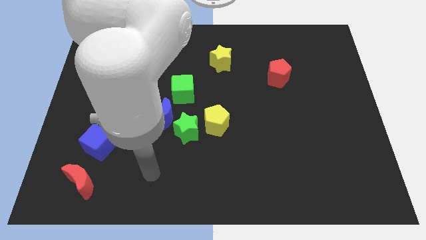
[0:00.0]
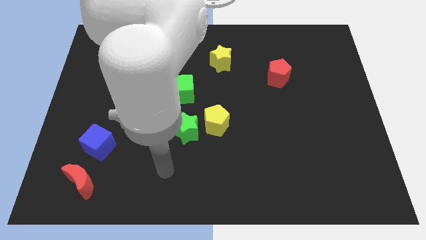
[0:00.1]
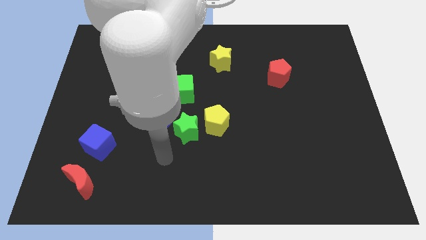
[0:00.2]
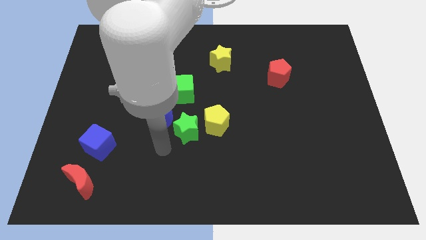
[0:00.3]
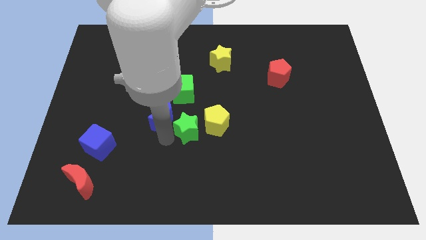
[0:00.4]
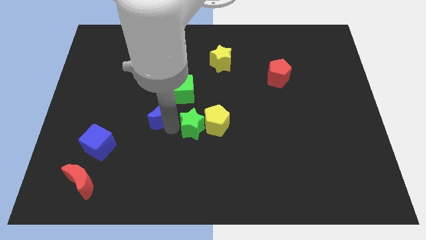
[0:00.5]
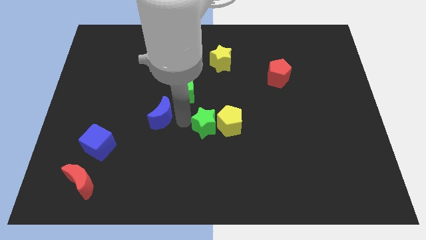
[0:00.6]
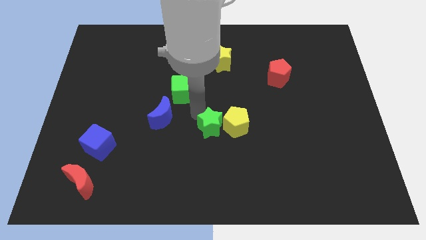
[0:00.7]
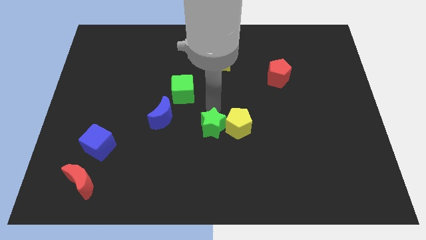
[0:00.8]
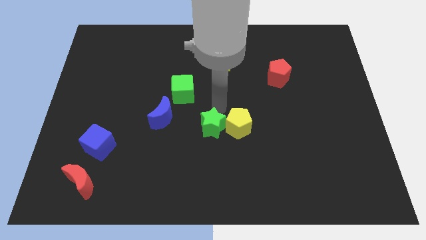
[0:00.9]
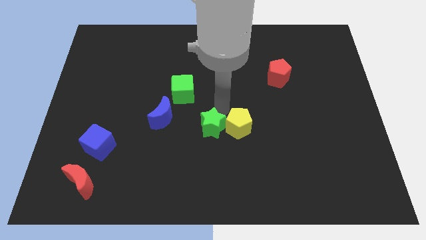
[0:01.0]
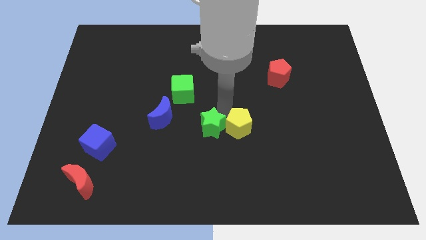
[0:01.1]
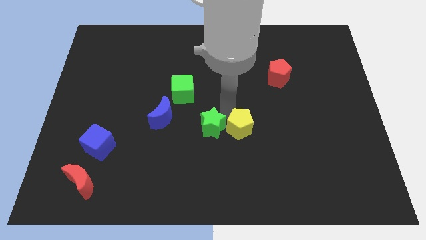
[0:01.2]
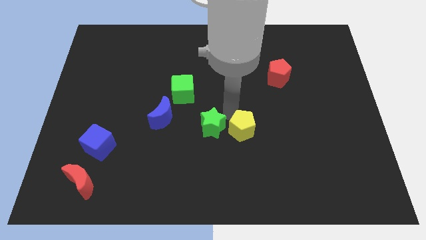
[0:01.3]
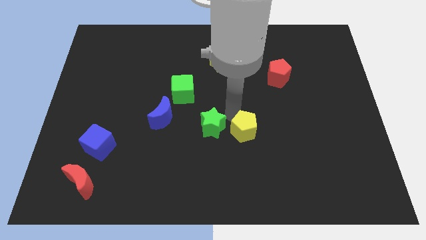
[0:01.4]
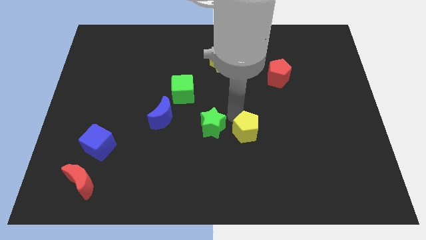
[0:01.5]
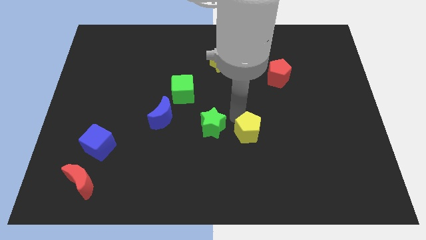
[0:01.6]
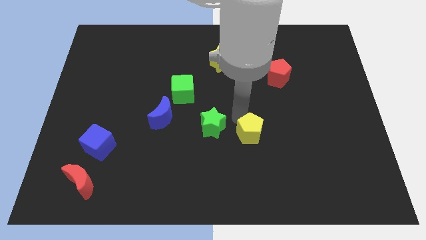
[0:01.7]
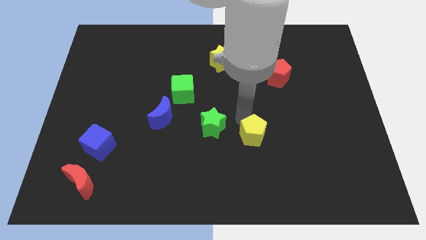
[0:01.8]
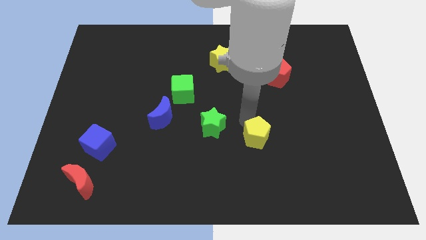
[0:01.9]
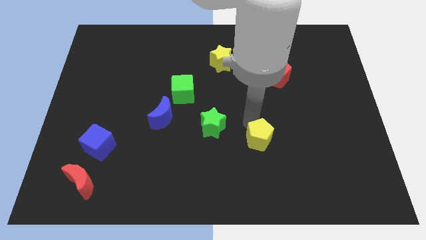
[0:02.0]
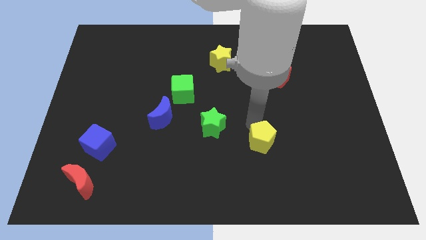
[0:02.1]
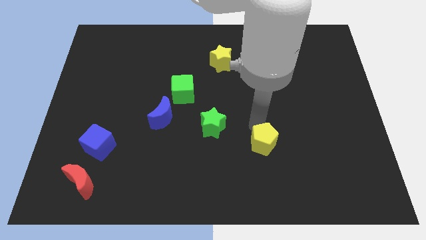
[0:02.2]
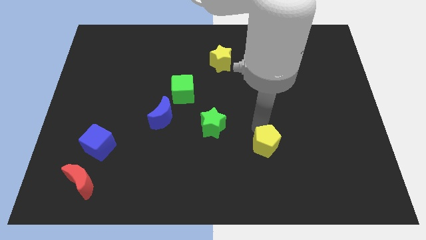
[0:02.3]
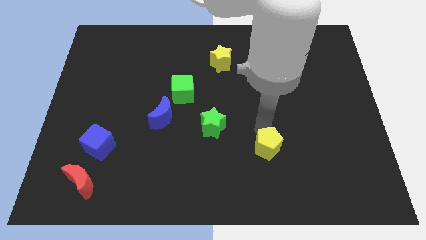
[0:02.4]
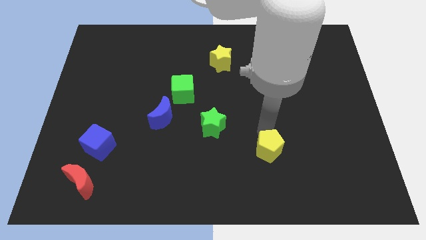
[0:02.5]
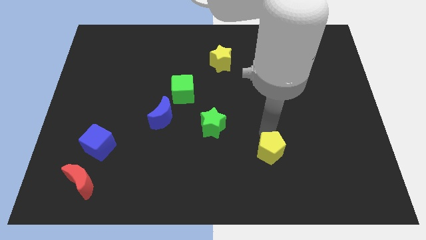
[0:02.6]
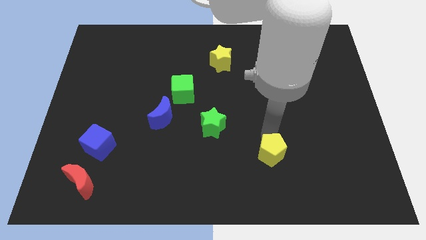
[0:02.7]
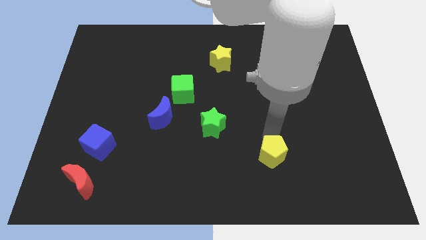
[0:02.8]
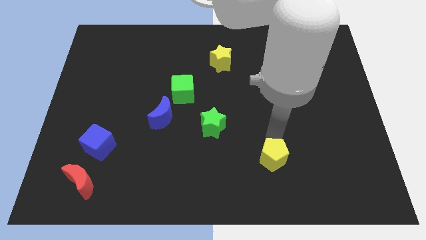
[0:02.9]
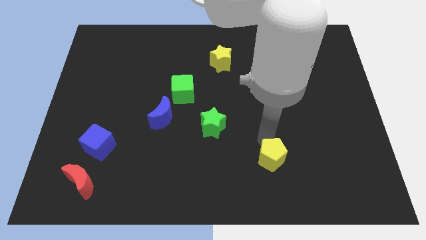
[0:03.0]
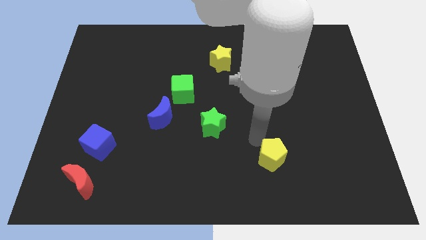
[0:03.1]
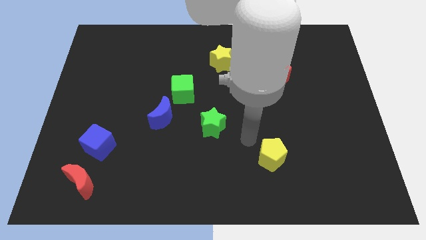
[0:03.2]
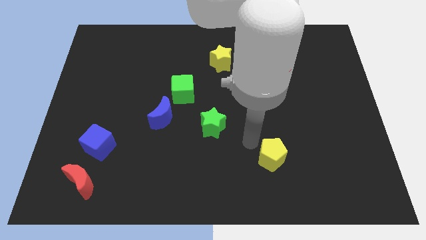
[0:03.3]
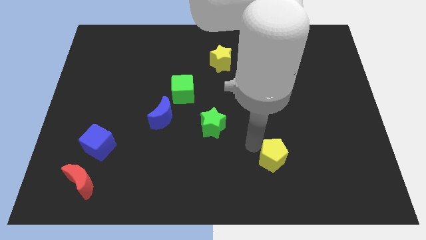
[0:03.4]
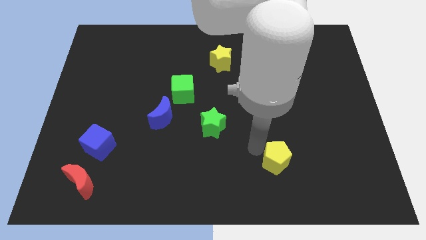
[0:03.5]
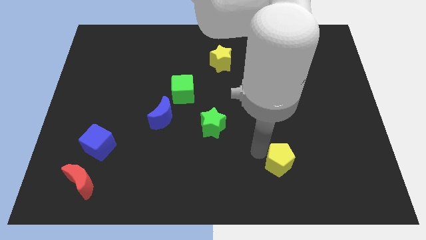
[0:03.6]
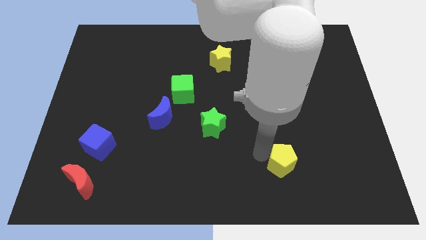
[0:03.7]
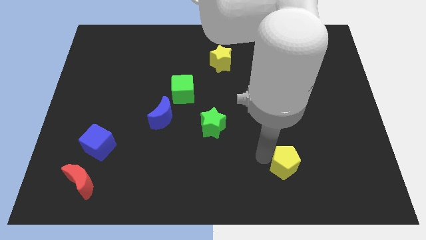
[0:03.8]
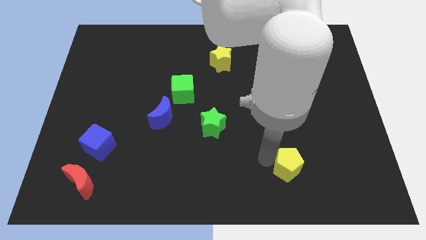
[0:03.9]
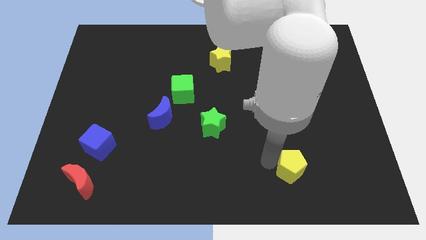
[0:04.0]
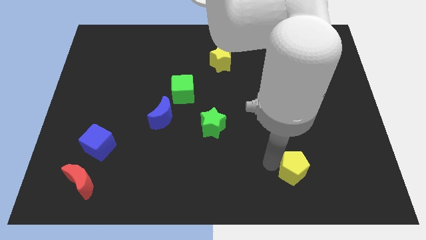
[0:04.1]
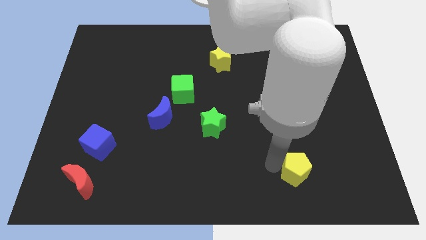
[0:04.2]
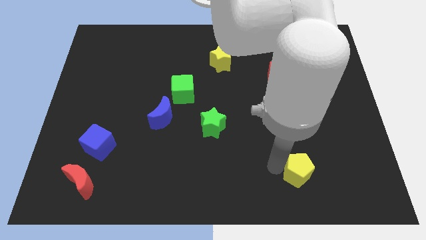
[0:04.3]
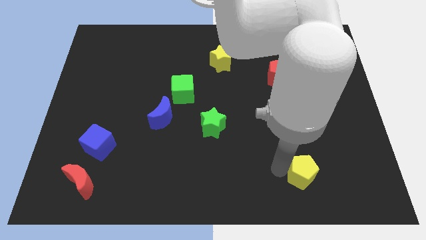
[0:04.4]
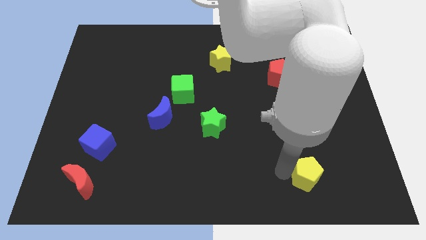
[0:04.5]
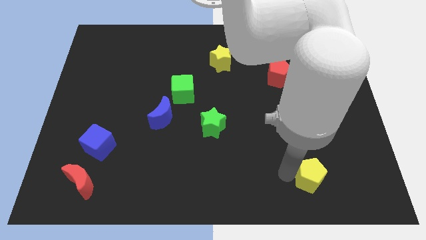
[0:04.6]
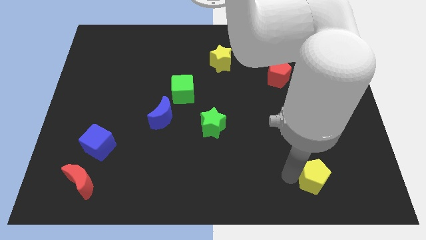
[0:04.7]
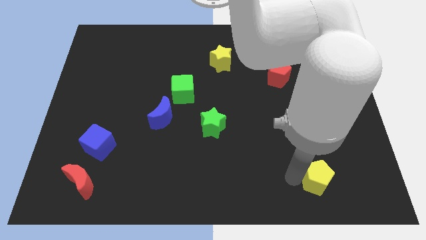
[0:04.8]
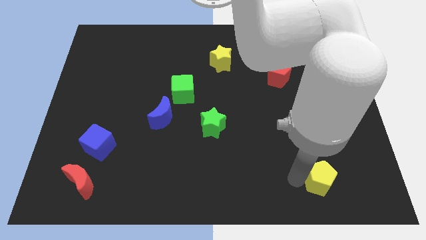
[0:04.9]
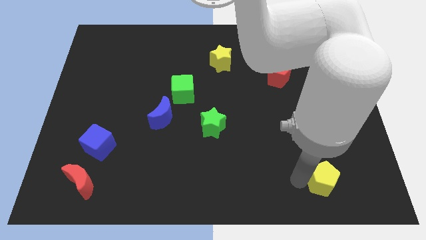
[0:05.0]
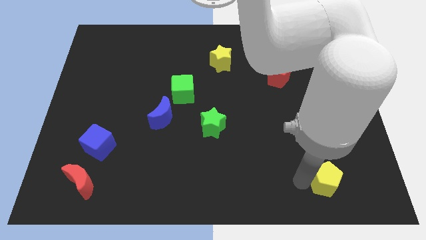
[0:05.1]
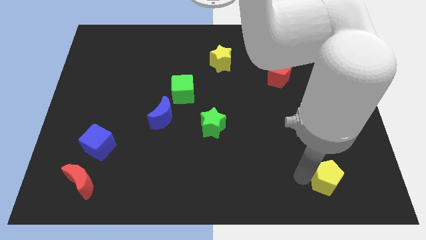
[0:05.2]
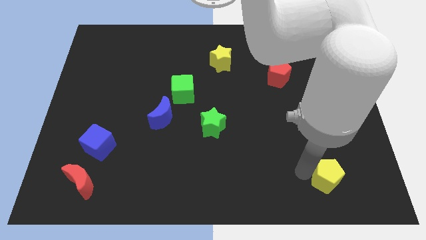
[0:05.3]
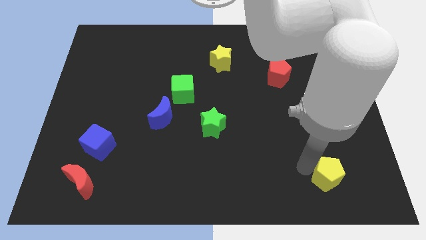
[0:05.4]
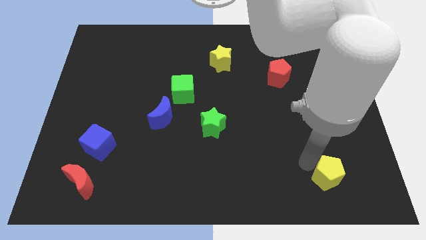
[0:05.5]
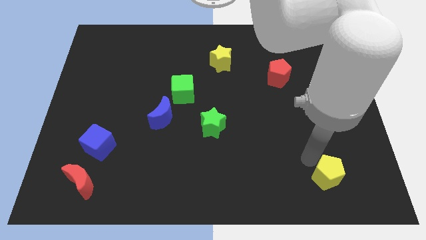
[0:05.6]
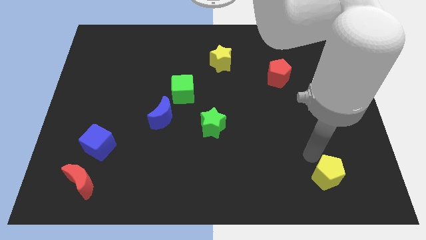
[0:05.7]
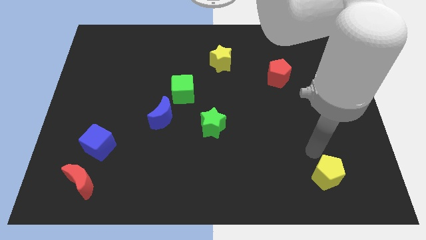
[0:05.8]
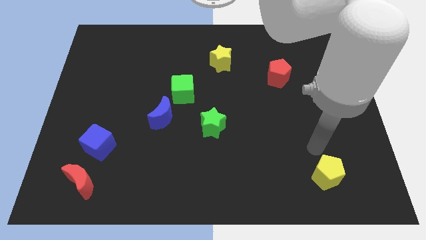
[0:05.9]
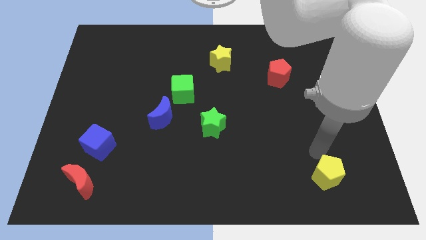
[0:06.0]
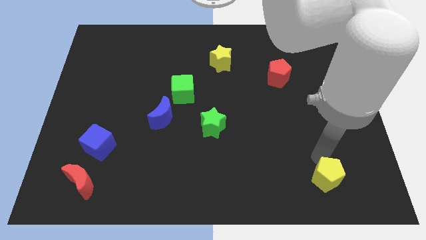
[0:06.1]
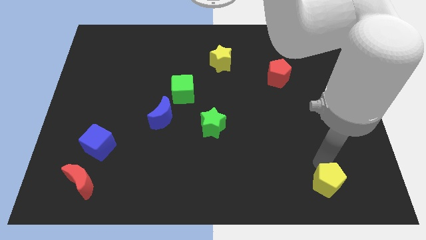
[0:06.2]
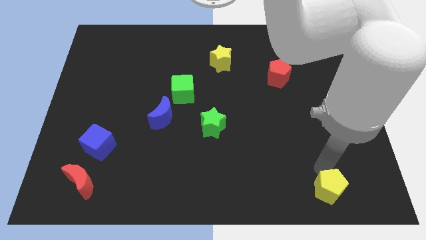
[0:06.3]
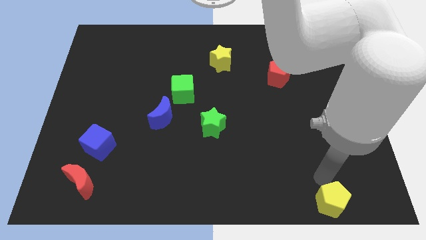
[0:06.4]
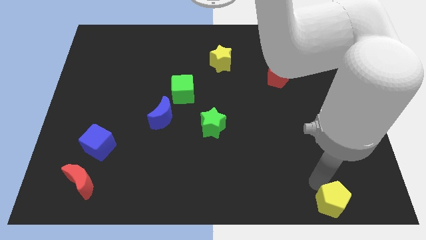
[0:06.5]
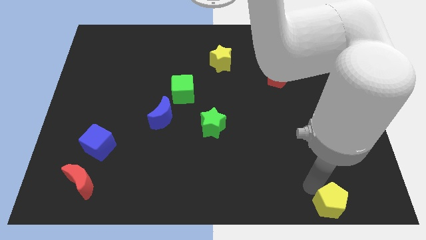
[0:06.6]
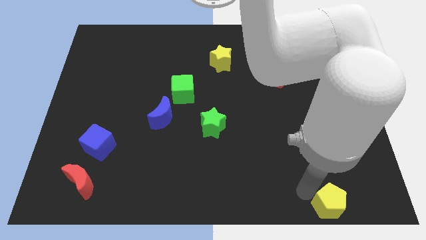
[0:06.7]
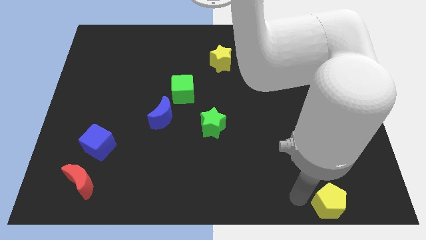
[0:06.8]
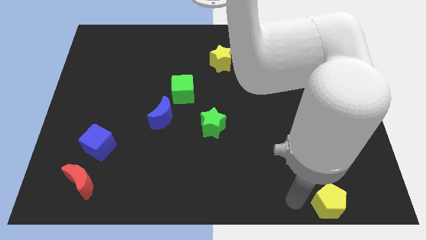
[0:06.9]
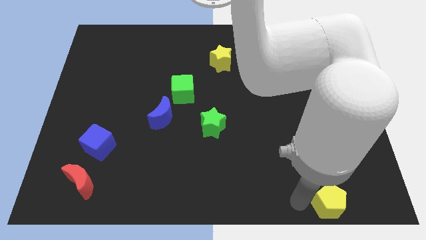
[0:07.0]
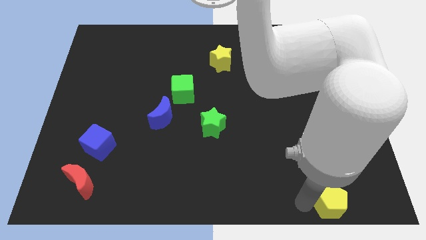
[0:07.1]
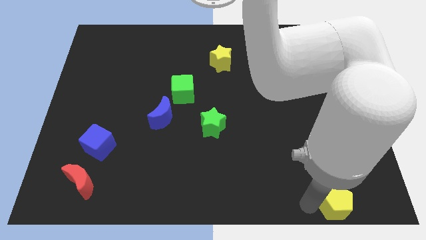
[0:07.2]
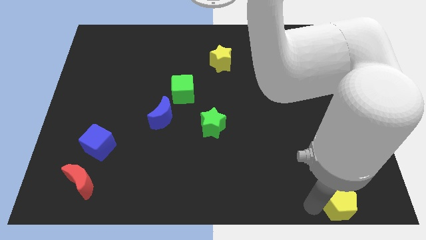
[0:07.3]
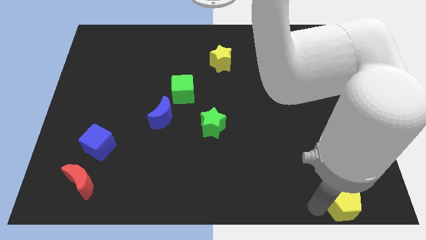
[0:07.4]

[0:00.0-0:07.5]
move the yellow pentagon to the lower right corner

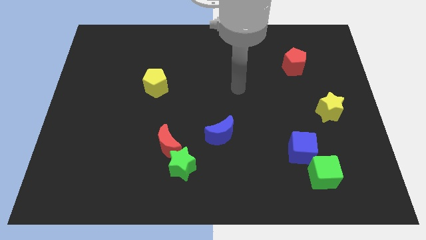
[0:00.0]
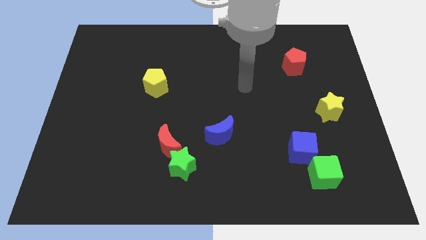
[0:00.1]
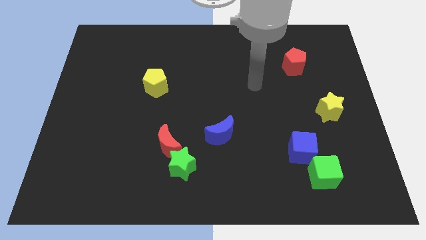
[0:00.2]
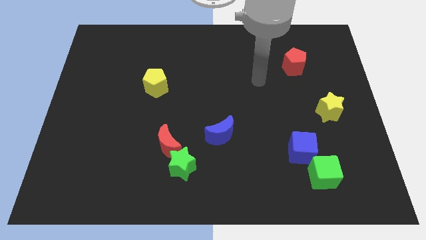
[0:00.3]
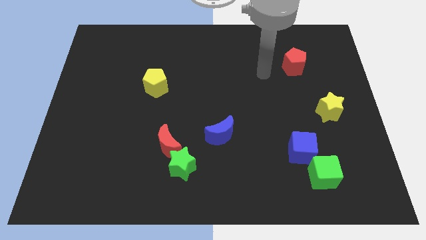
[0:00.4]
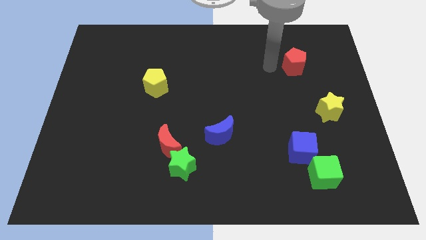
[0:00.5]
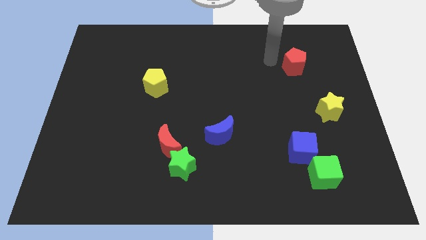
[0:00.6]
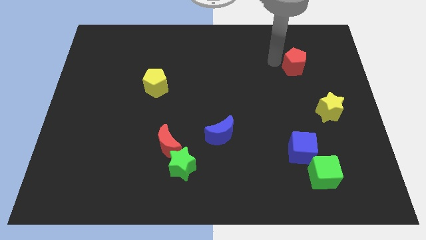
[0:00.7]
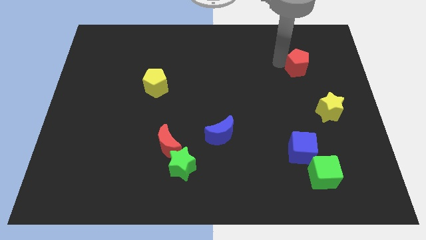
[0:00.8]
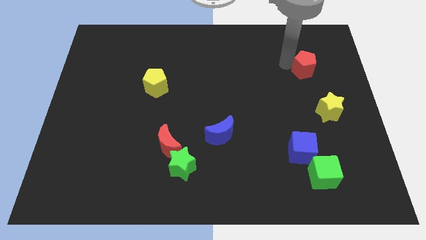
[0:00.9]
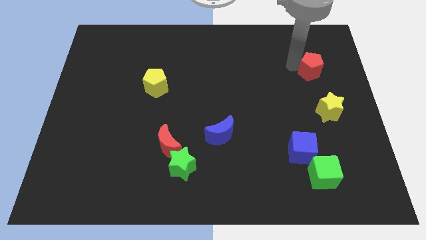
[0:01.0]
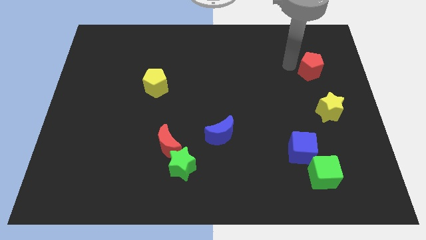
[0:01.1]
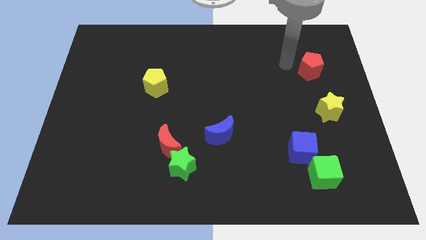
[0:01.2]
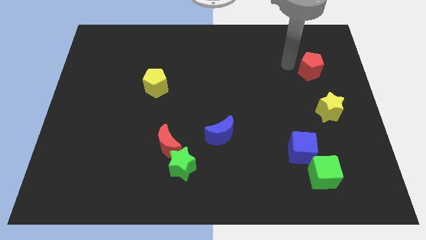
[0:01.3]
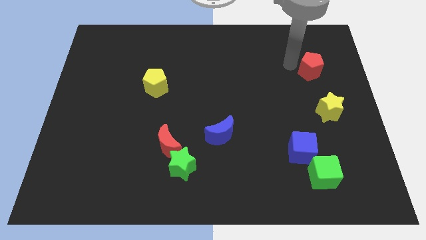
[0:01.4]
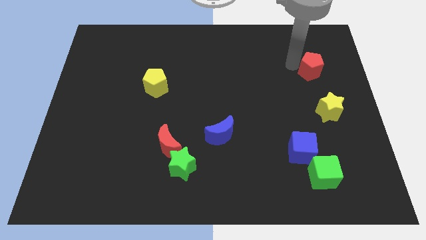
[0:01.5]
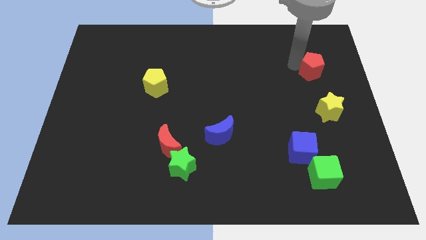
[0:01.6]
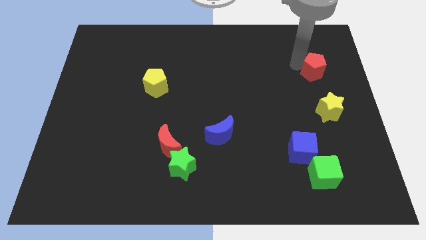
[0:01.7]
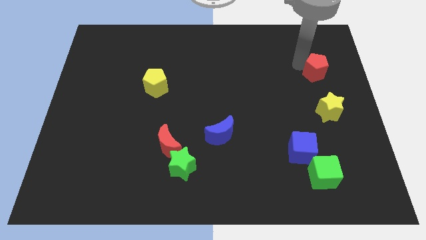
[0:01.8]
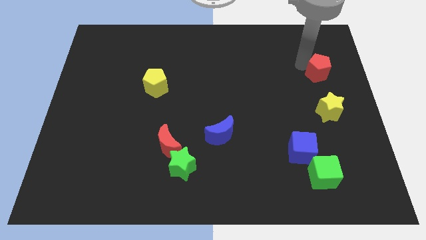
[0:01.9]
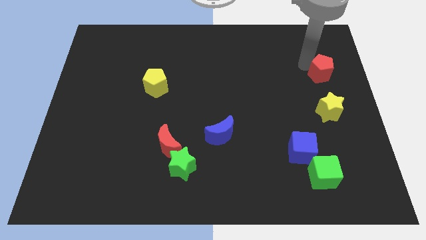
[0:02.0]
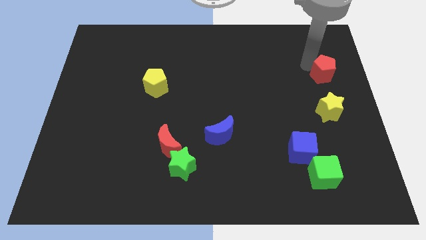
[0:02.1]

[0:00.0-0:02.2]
put the red pentagon to the right side of the board
